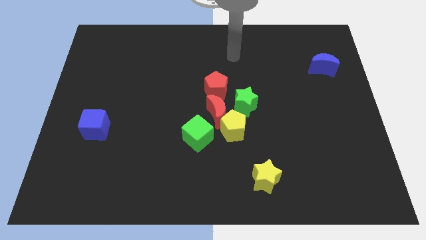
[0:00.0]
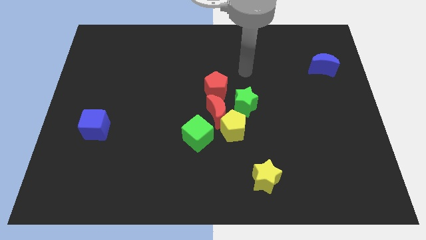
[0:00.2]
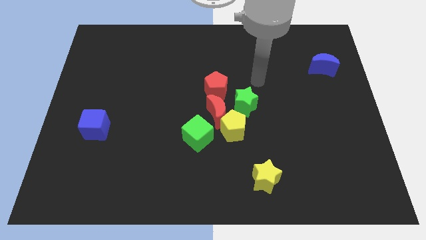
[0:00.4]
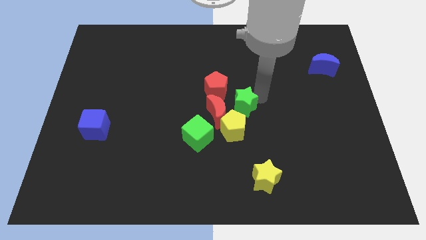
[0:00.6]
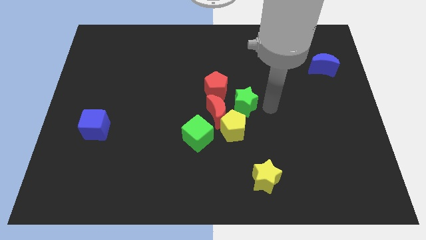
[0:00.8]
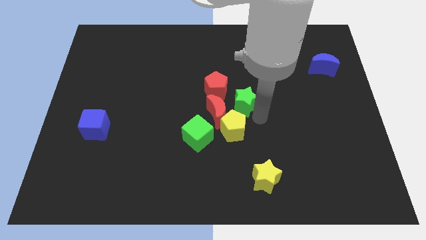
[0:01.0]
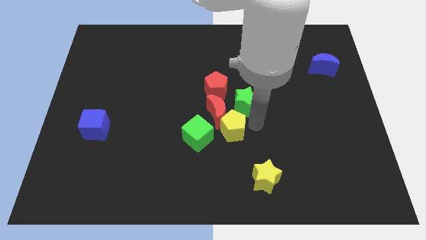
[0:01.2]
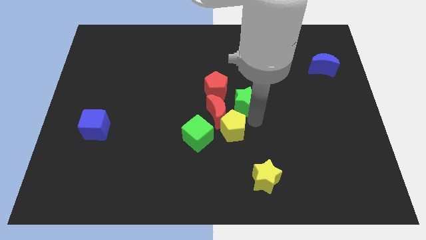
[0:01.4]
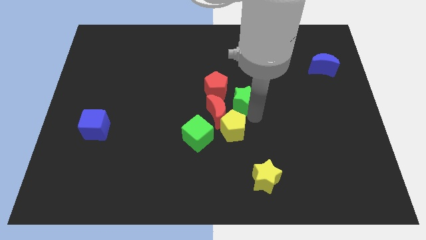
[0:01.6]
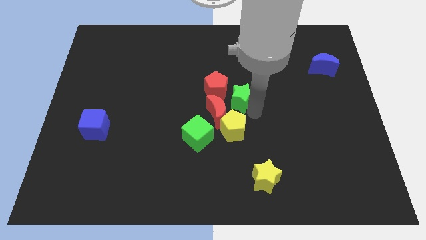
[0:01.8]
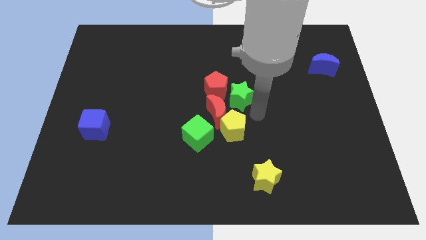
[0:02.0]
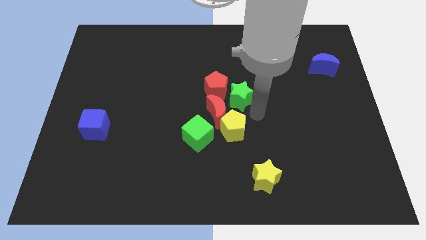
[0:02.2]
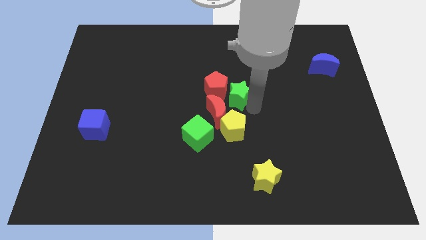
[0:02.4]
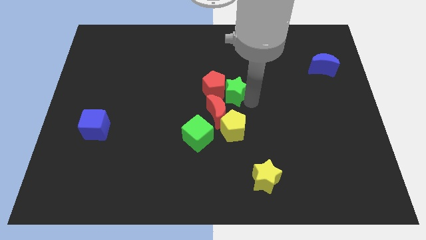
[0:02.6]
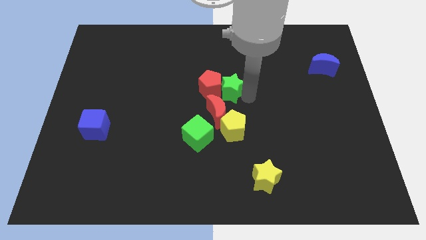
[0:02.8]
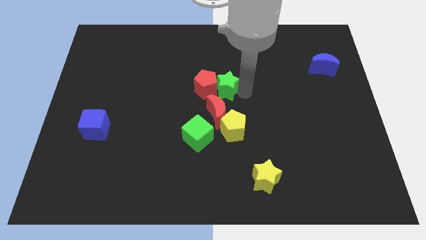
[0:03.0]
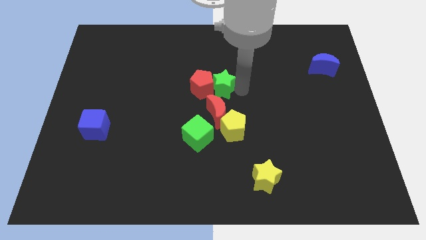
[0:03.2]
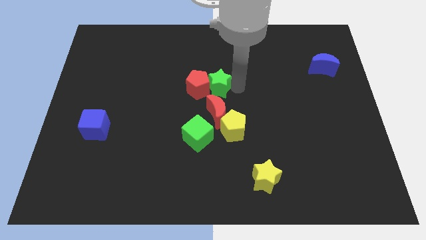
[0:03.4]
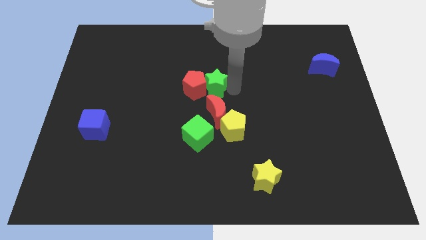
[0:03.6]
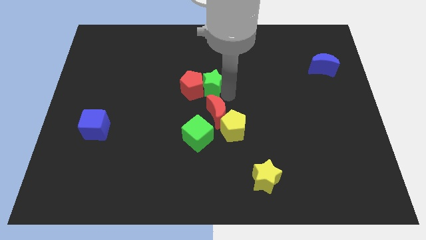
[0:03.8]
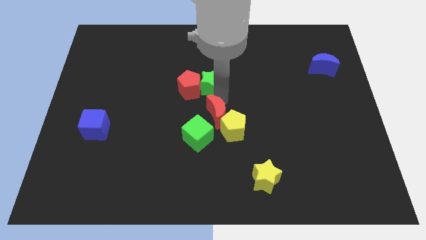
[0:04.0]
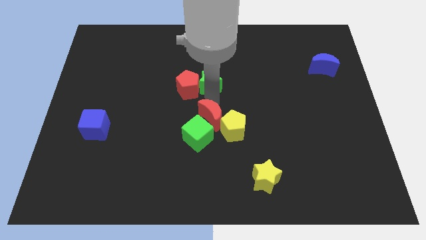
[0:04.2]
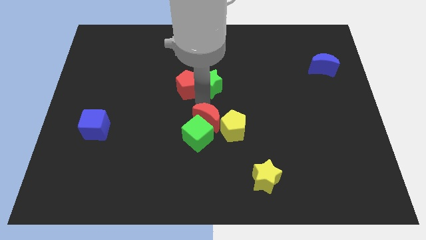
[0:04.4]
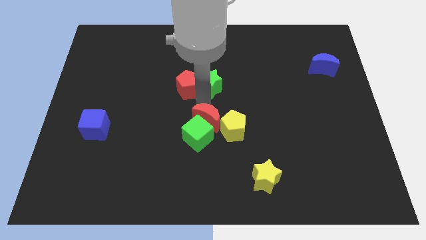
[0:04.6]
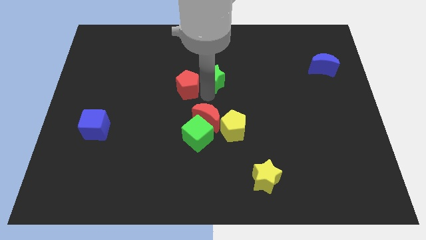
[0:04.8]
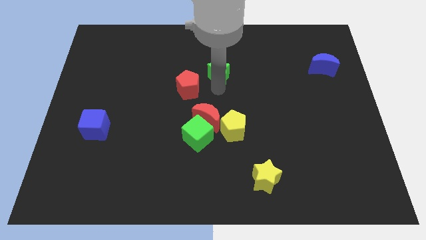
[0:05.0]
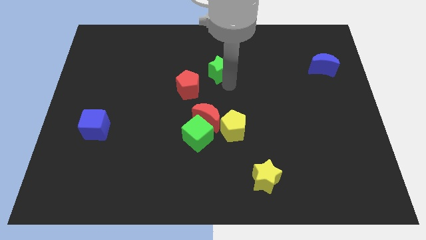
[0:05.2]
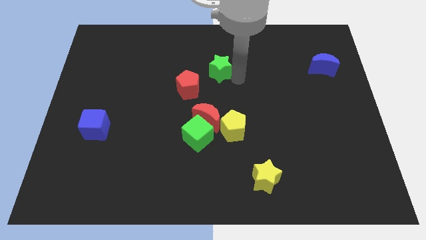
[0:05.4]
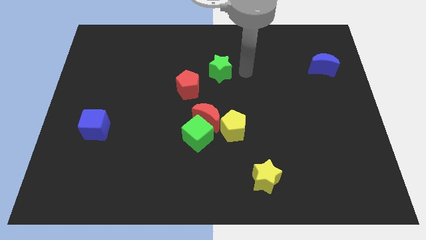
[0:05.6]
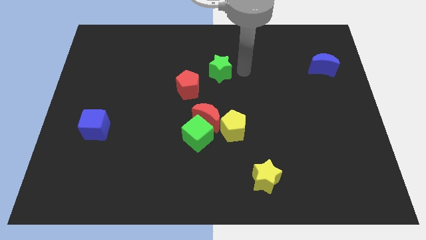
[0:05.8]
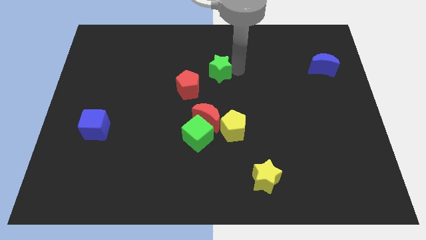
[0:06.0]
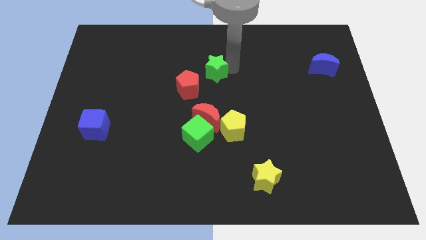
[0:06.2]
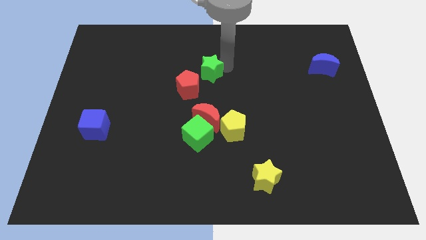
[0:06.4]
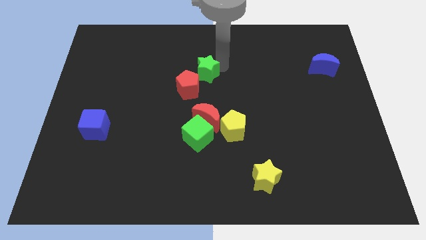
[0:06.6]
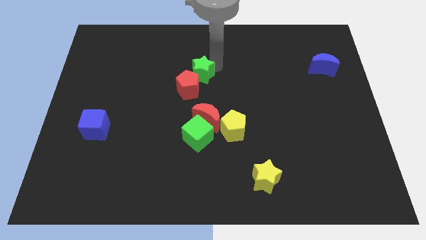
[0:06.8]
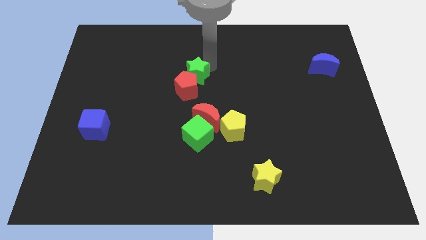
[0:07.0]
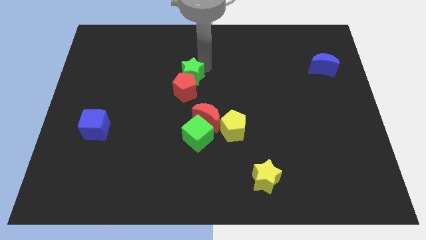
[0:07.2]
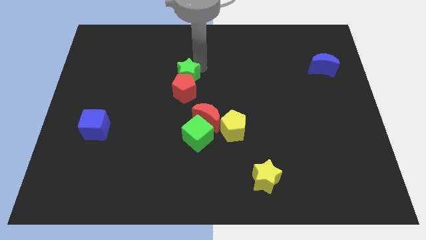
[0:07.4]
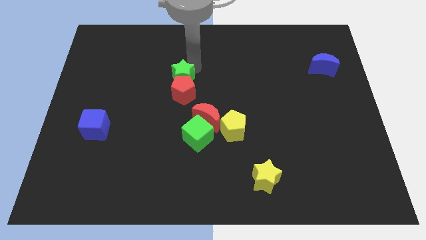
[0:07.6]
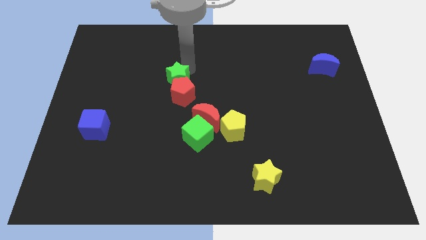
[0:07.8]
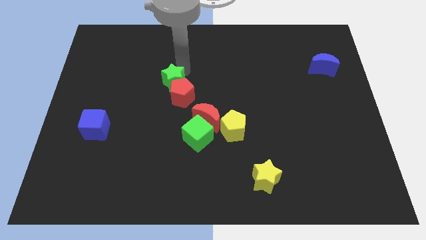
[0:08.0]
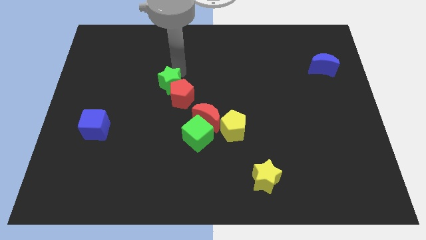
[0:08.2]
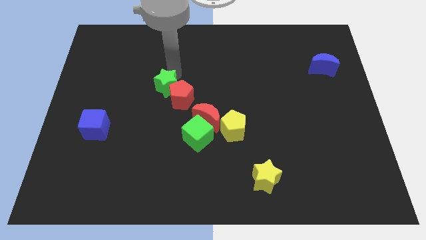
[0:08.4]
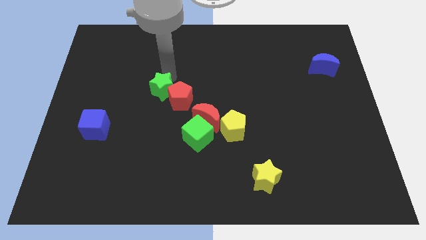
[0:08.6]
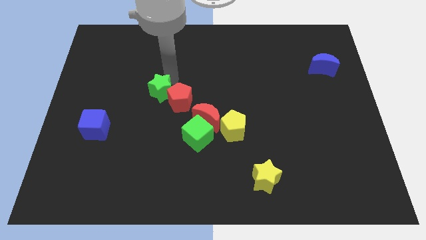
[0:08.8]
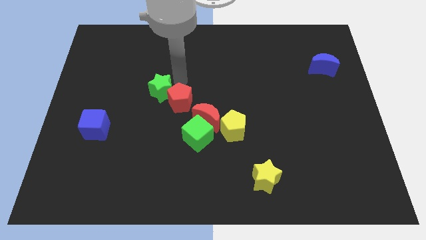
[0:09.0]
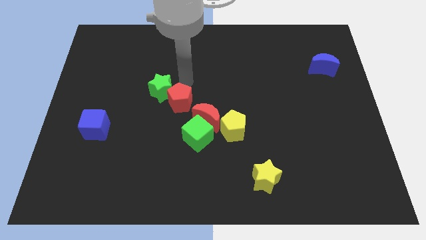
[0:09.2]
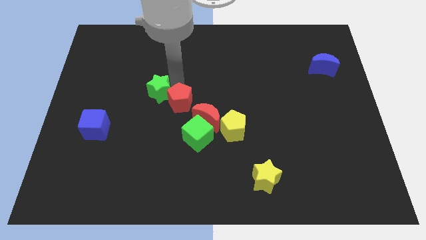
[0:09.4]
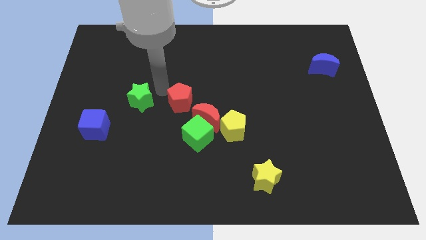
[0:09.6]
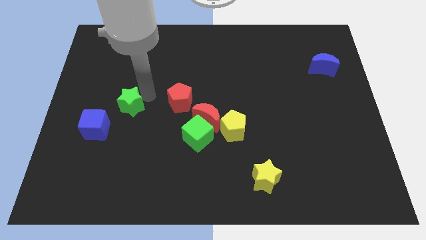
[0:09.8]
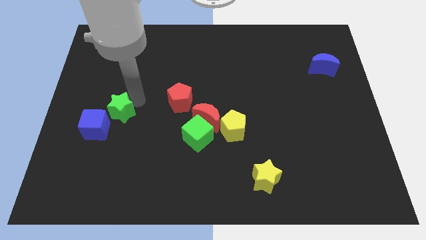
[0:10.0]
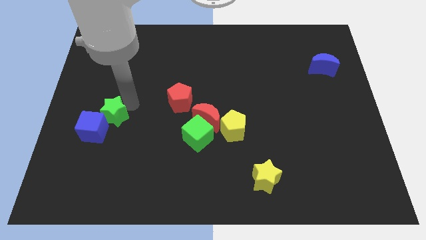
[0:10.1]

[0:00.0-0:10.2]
move the green star towards the blue cube

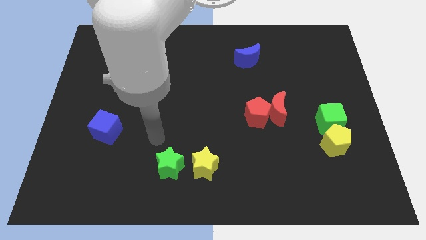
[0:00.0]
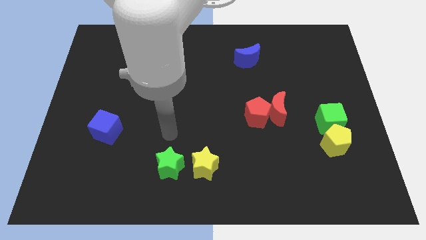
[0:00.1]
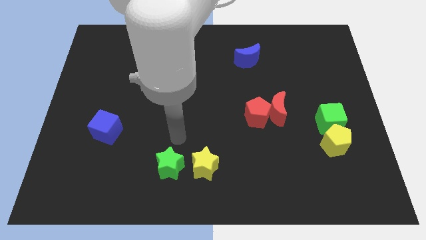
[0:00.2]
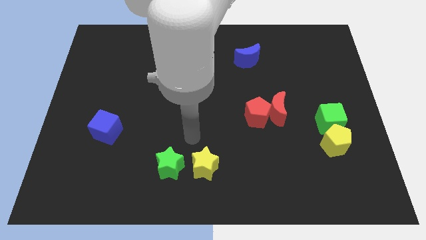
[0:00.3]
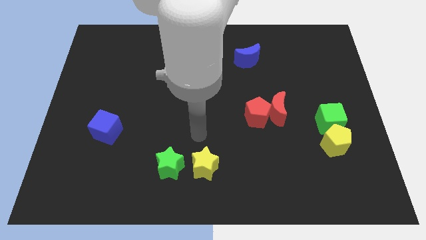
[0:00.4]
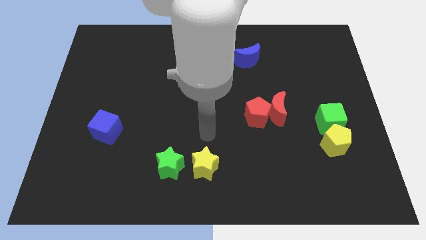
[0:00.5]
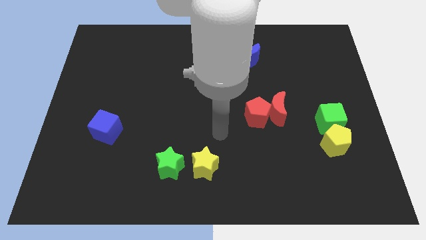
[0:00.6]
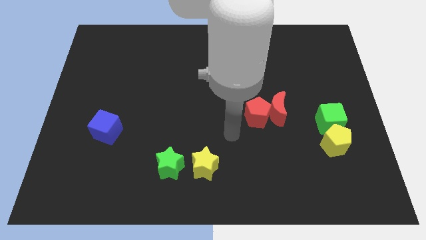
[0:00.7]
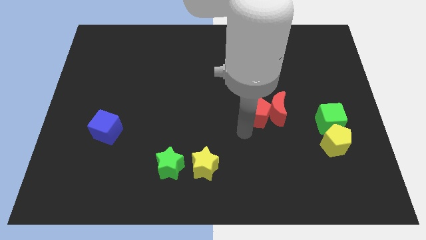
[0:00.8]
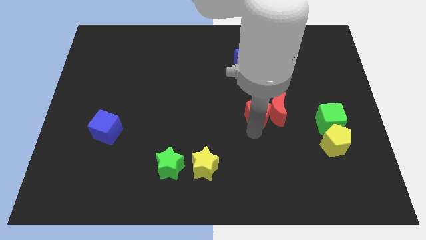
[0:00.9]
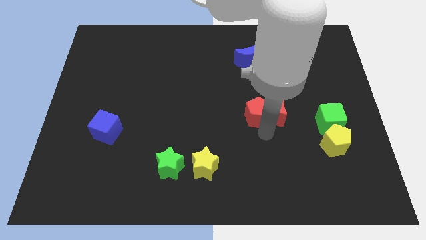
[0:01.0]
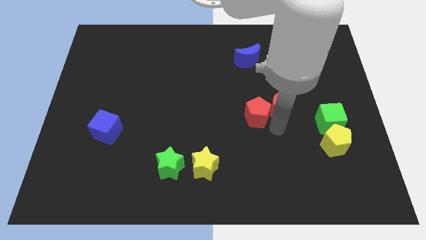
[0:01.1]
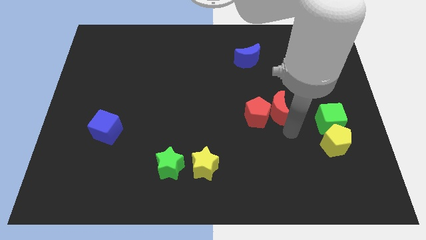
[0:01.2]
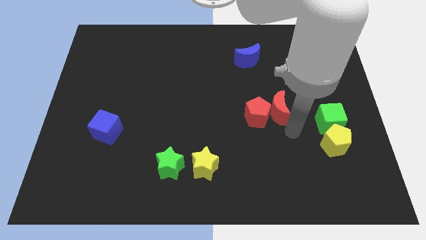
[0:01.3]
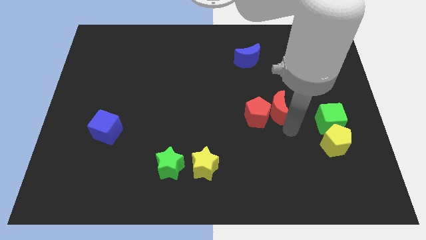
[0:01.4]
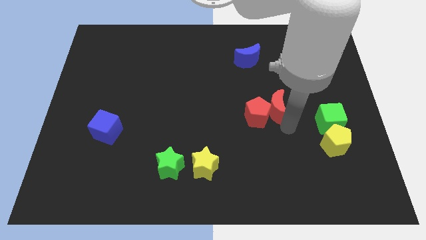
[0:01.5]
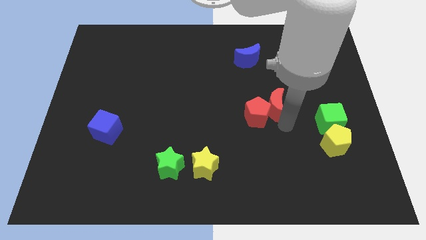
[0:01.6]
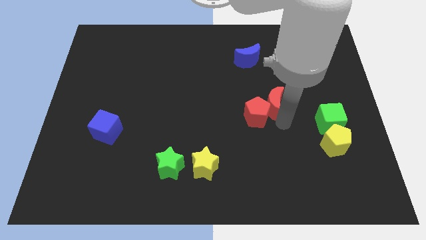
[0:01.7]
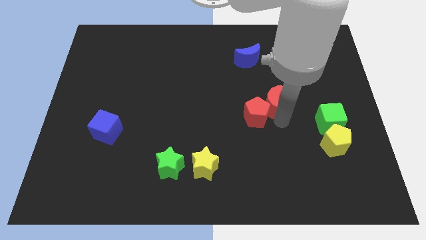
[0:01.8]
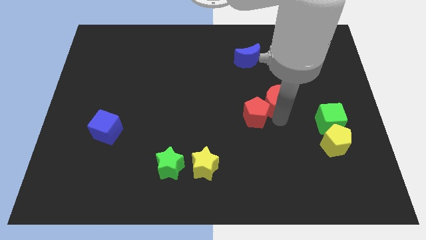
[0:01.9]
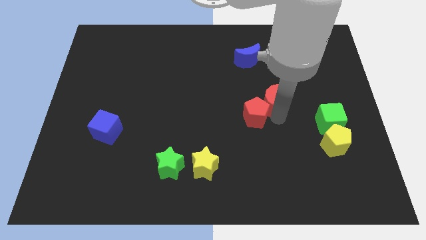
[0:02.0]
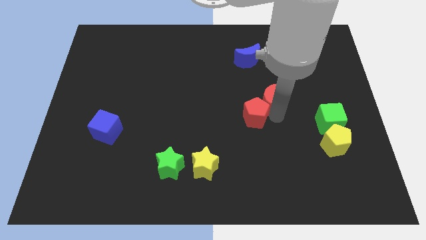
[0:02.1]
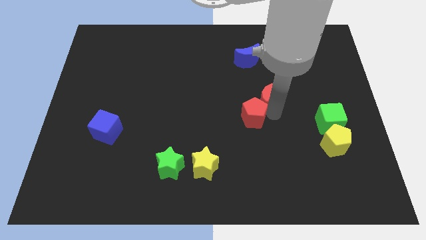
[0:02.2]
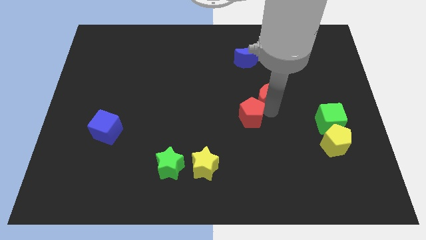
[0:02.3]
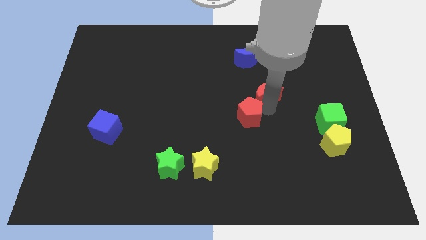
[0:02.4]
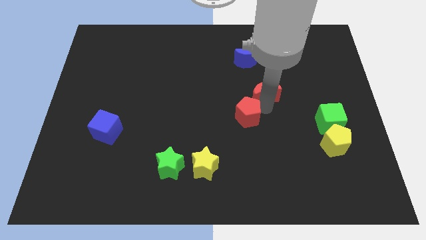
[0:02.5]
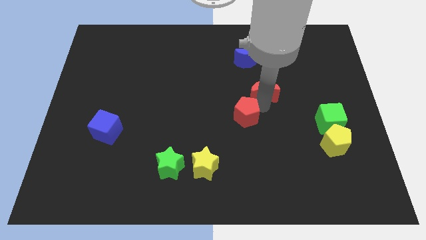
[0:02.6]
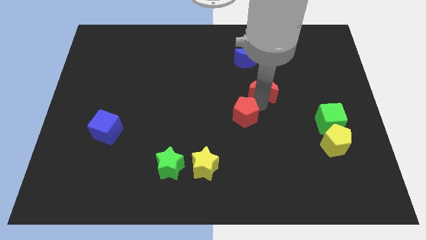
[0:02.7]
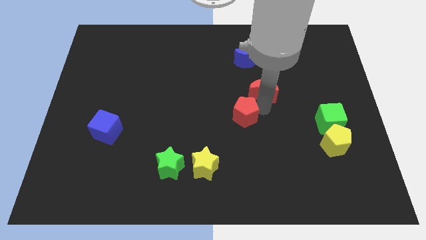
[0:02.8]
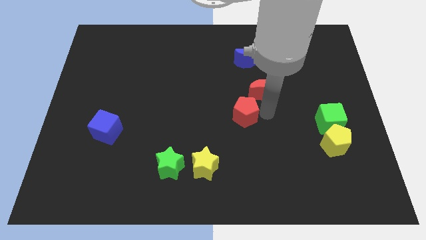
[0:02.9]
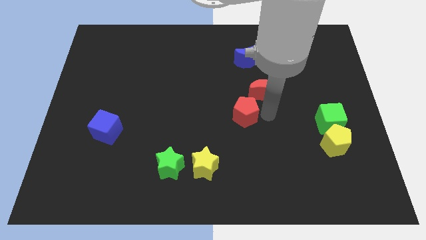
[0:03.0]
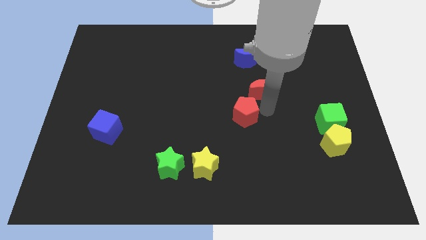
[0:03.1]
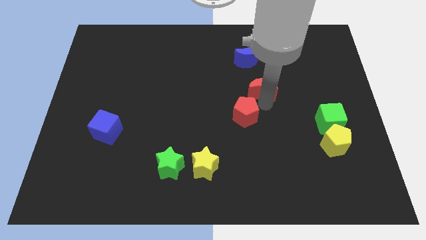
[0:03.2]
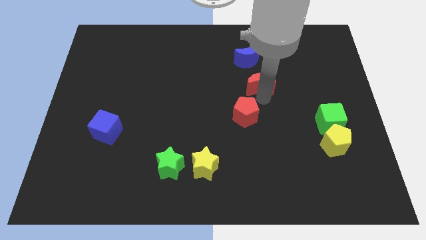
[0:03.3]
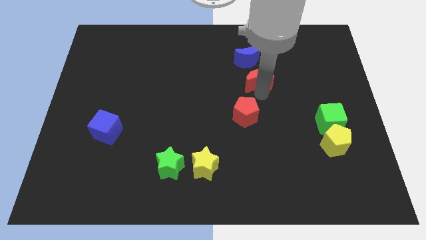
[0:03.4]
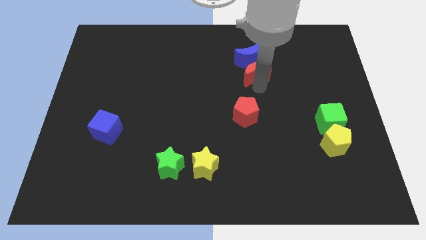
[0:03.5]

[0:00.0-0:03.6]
put the red moon to the blue moon
